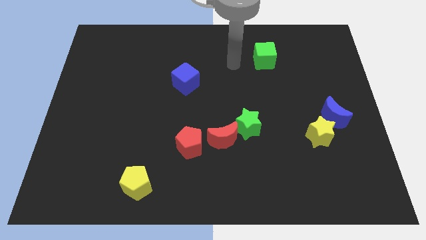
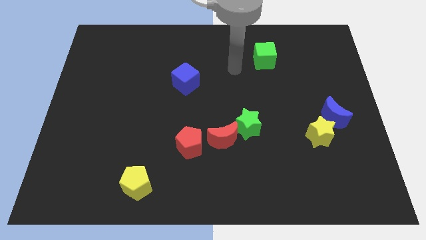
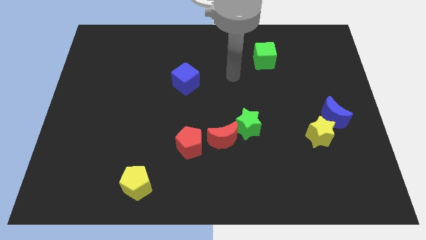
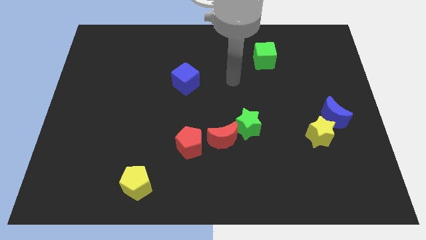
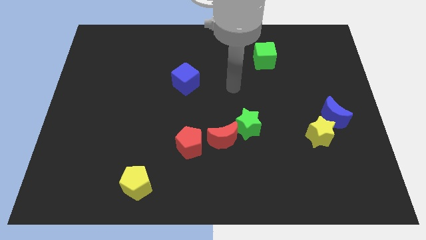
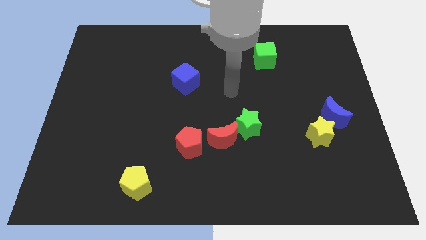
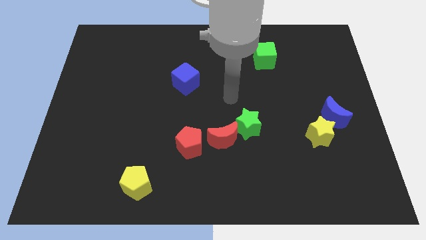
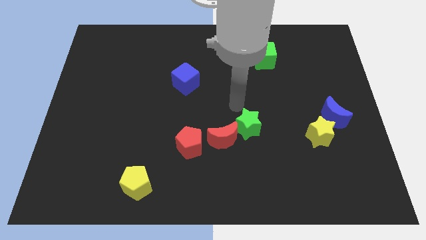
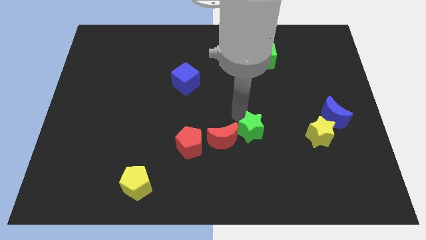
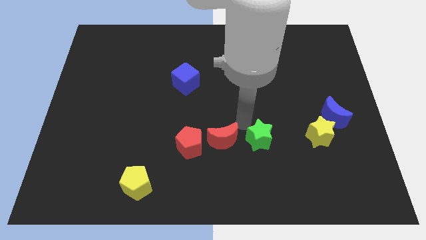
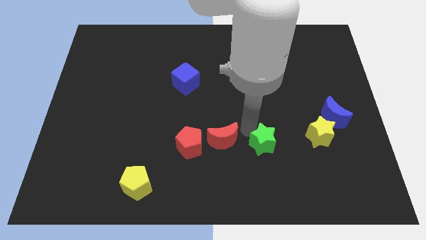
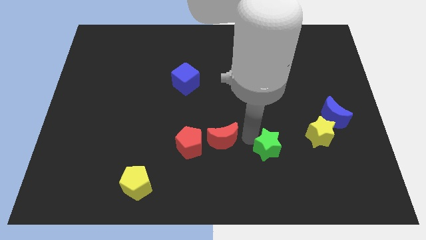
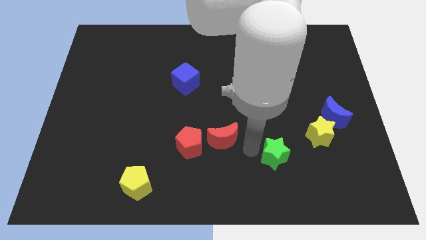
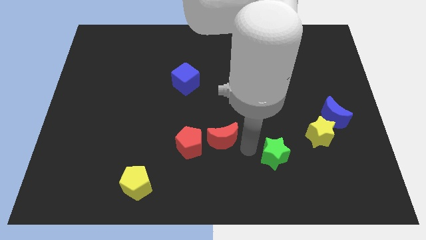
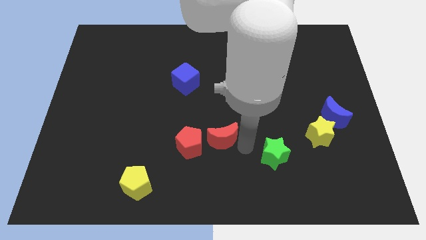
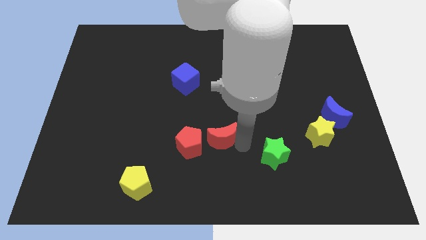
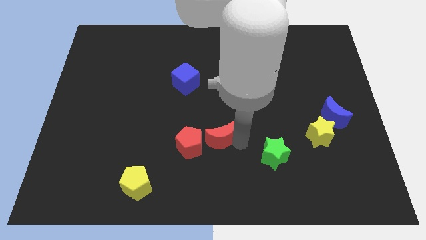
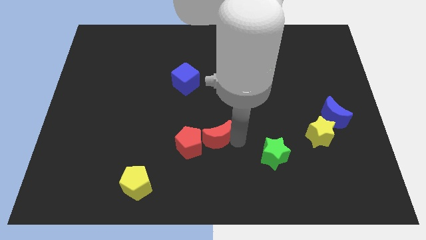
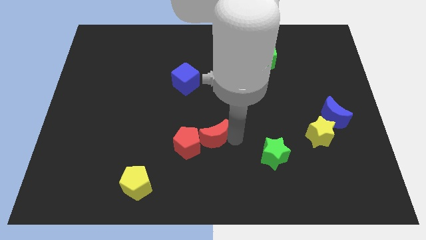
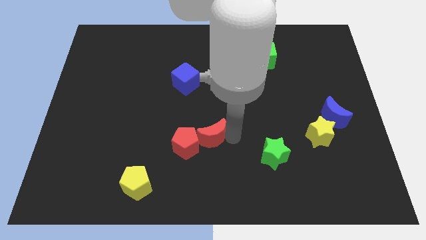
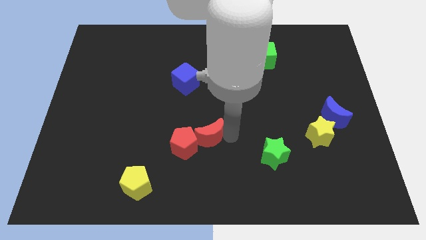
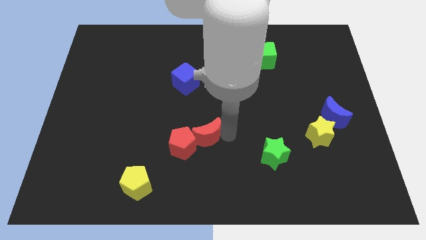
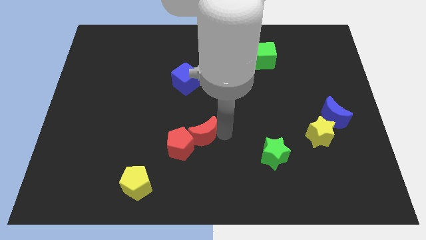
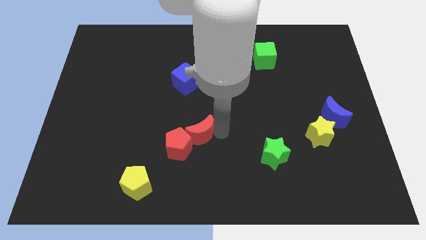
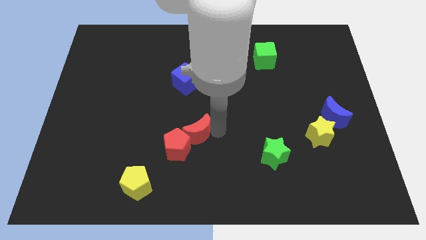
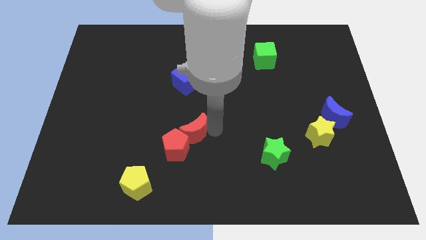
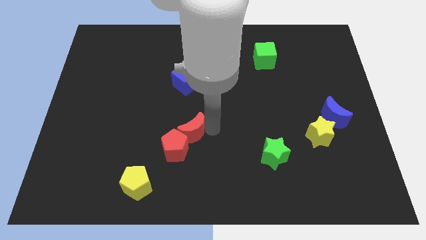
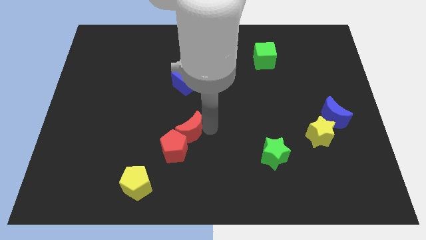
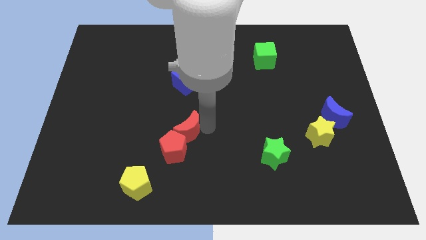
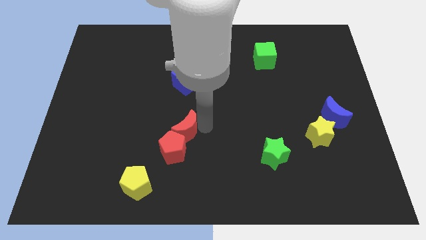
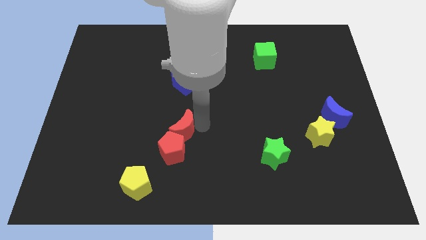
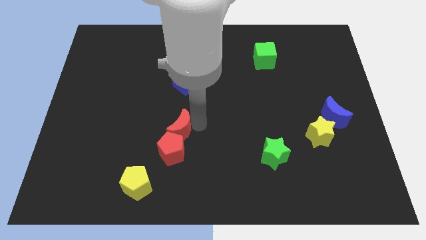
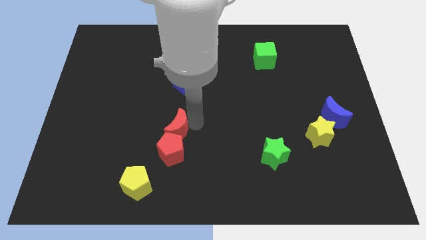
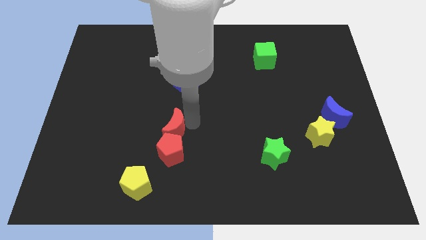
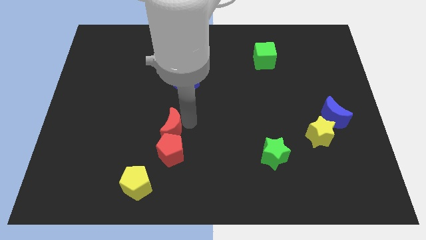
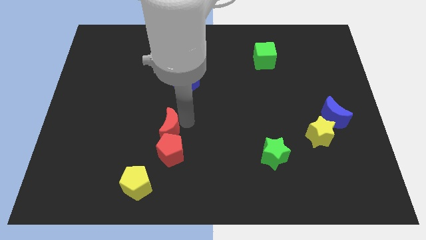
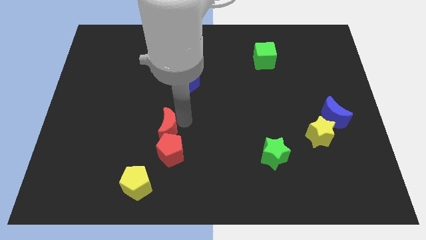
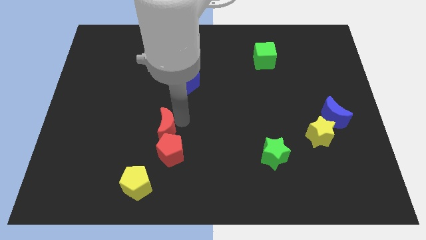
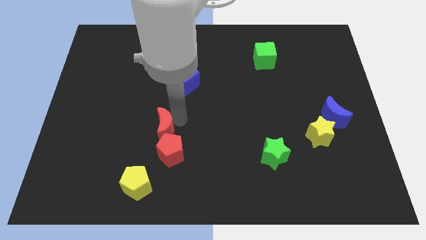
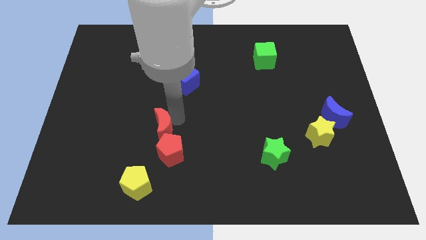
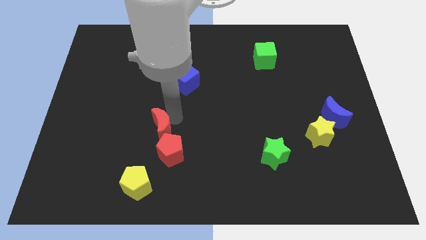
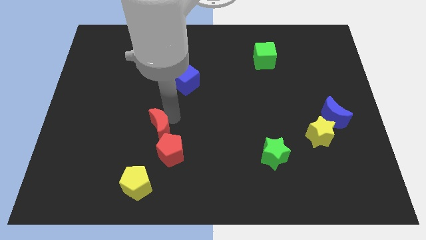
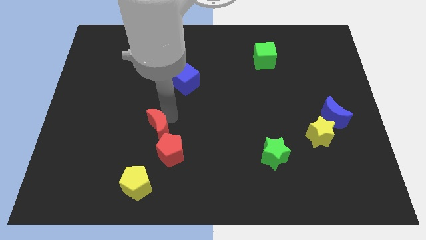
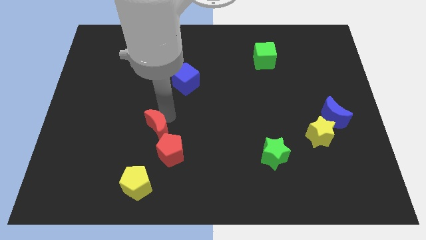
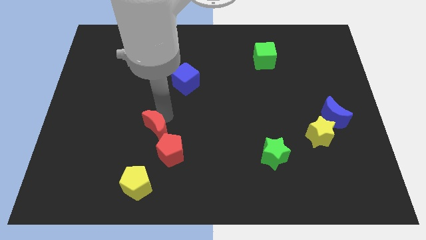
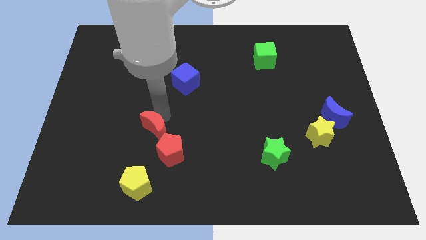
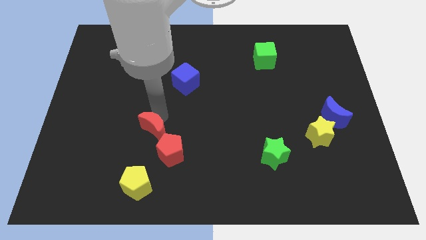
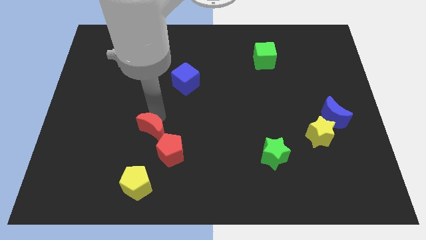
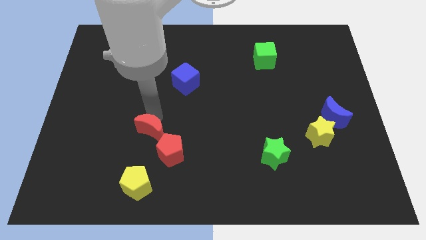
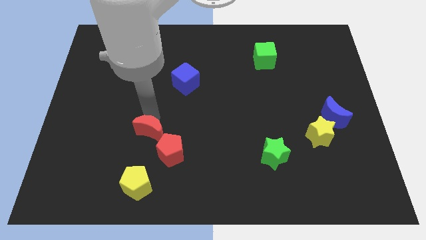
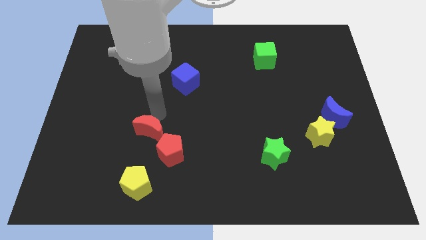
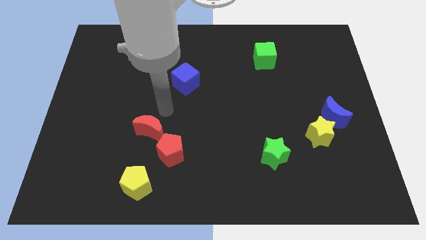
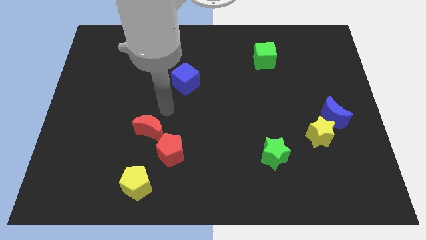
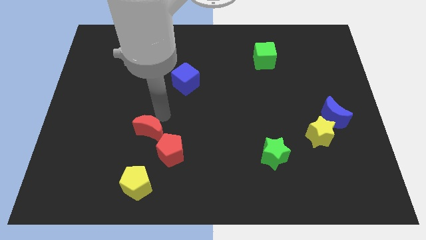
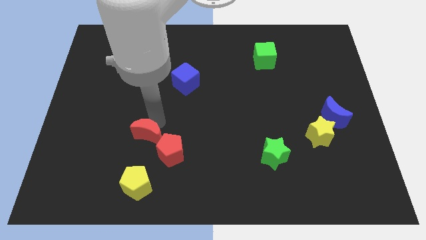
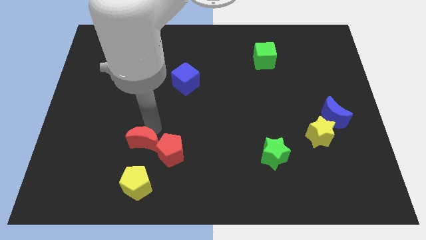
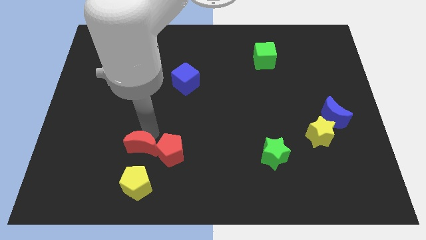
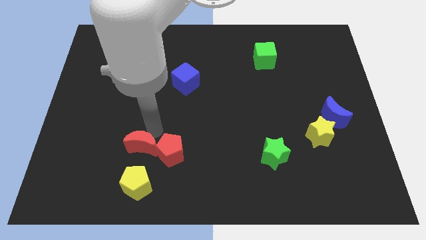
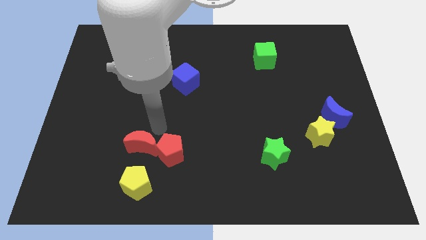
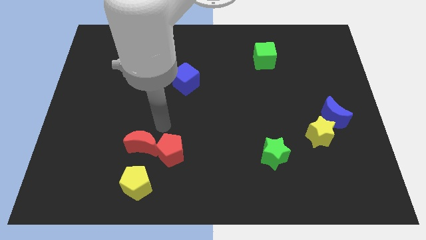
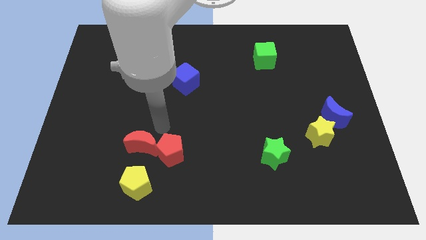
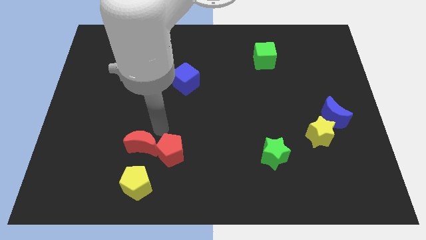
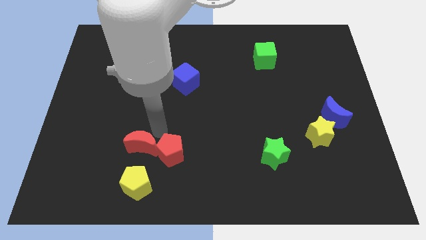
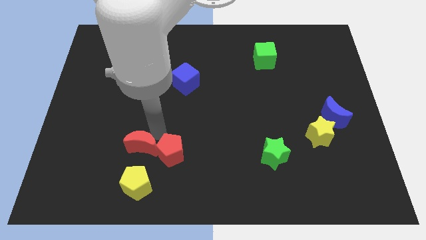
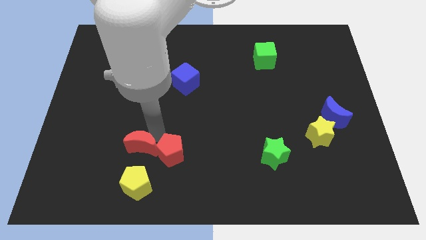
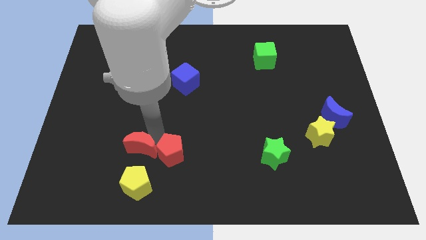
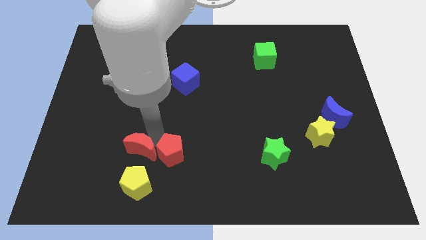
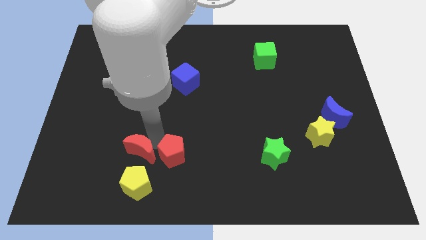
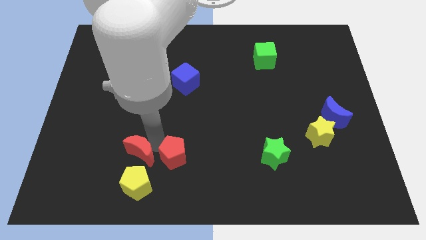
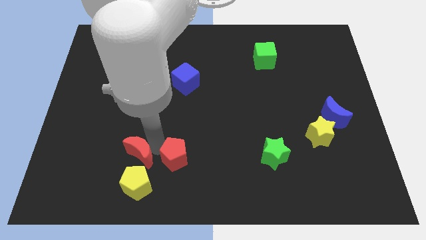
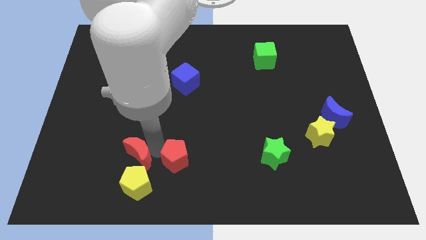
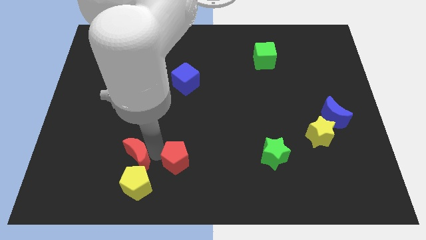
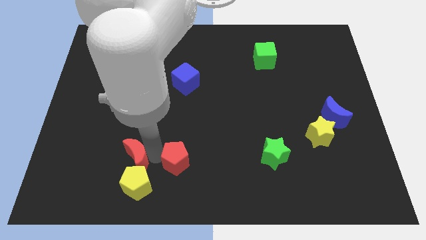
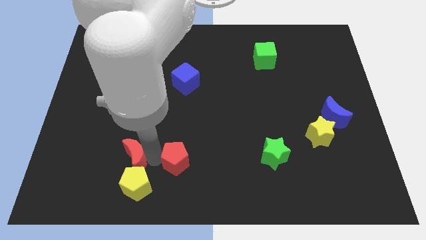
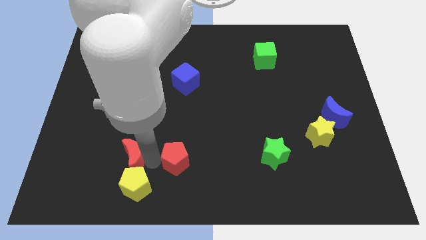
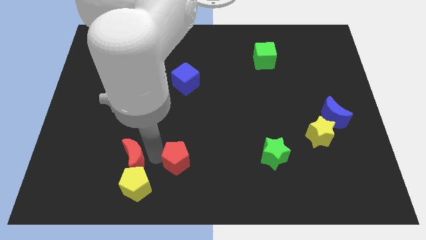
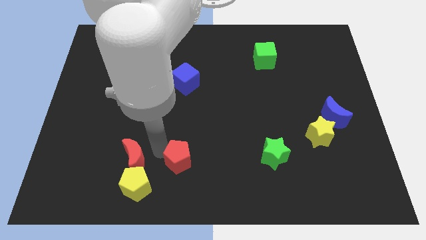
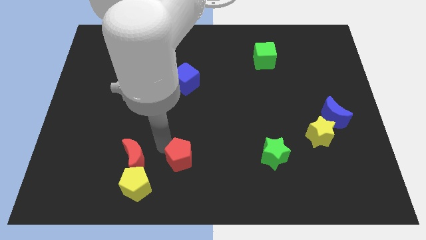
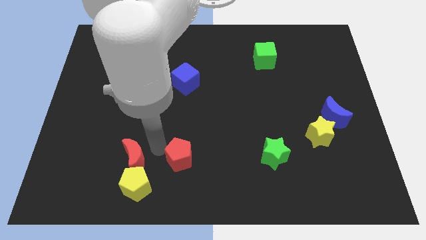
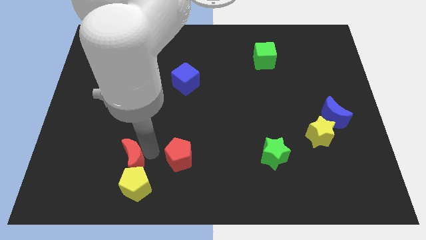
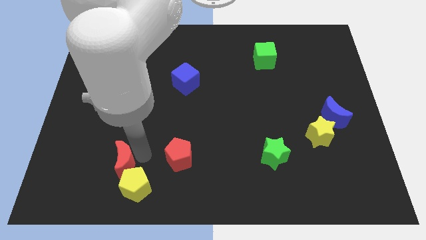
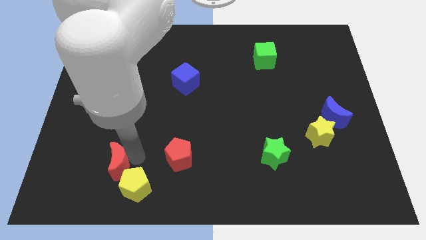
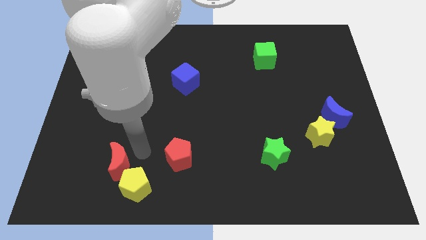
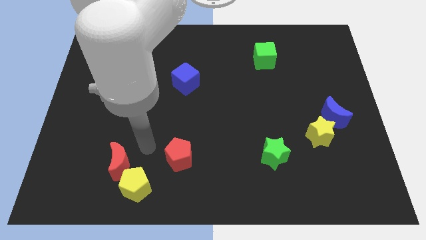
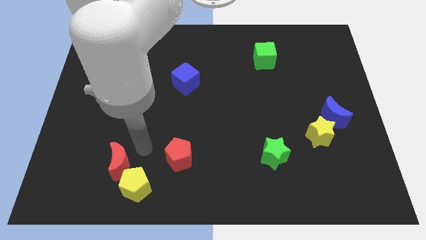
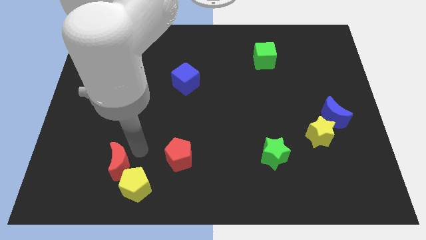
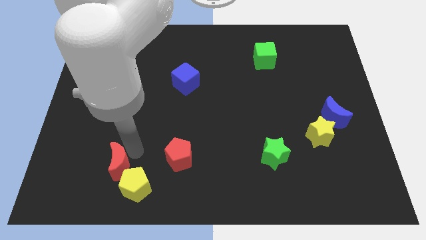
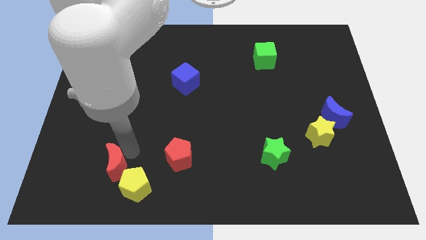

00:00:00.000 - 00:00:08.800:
slide the red moon left of the yellow pentagon
